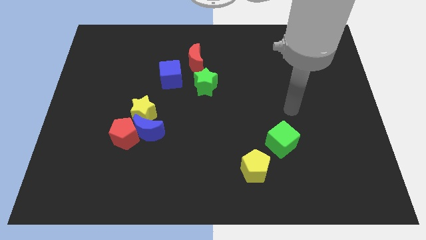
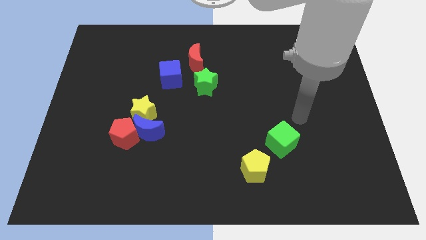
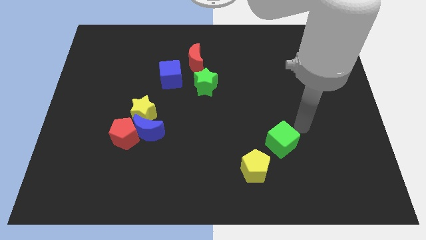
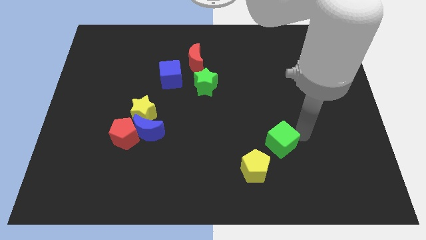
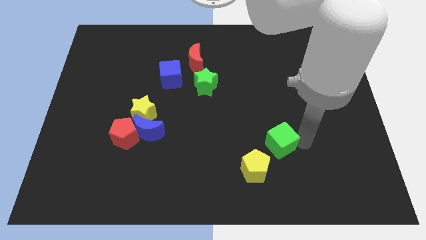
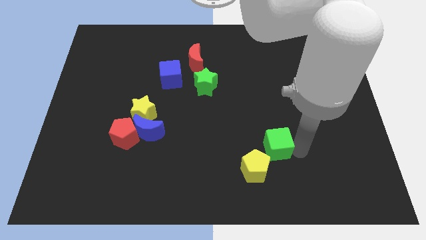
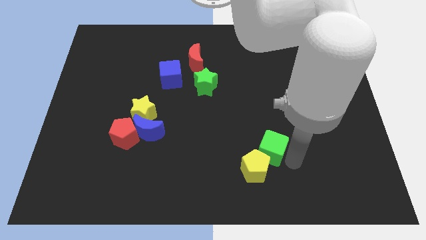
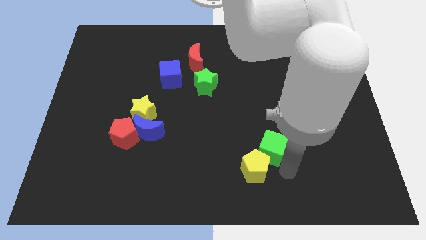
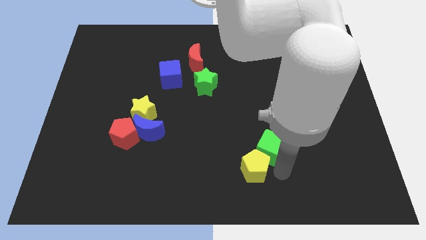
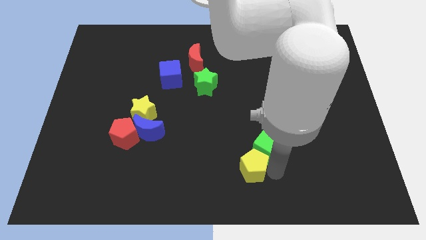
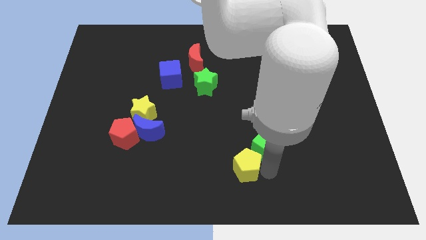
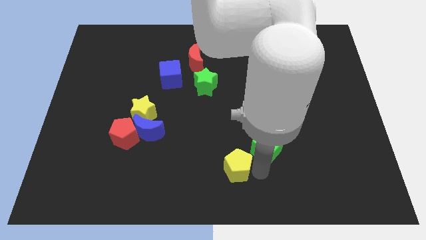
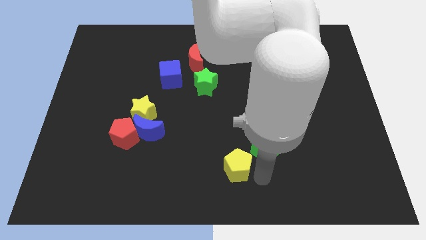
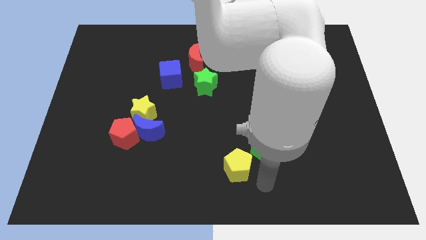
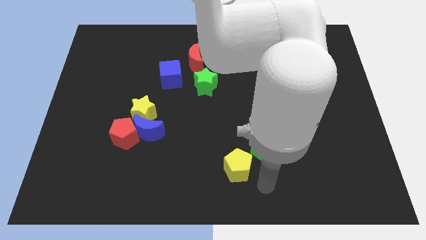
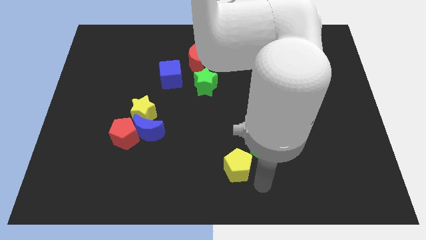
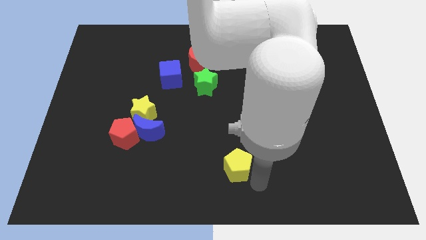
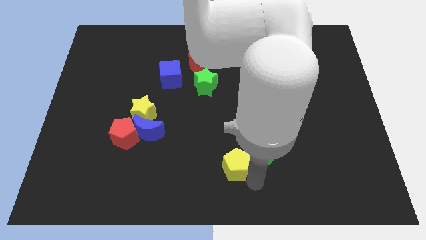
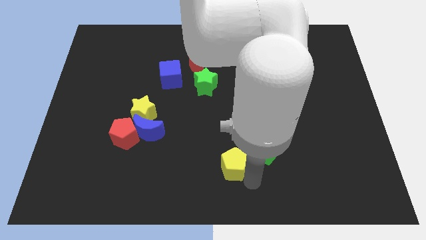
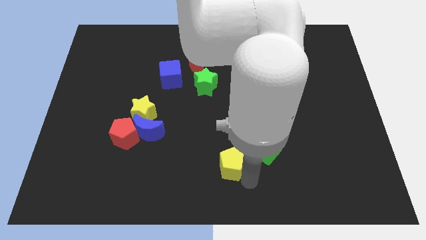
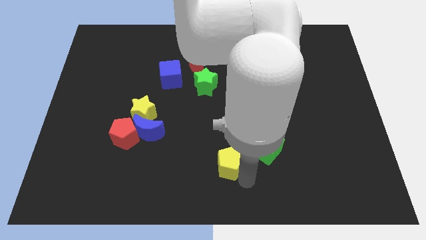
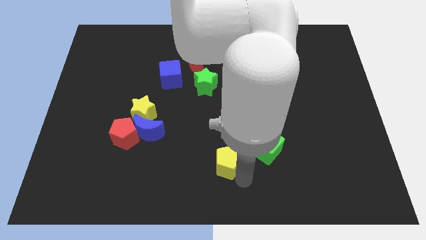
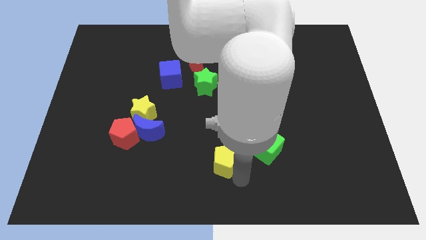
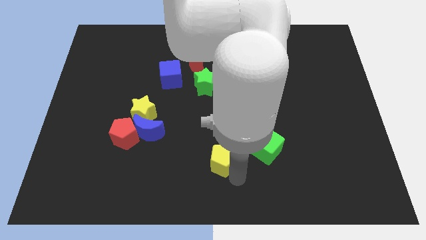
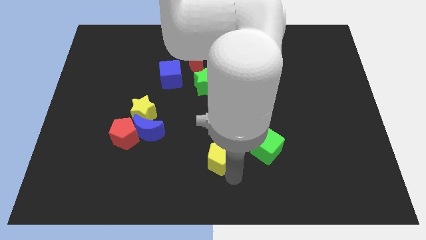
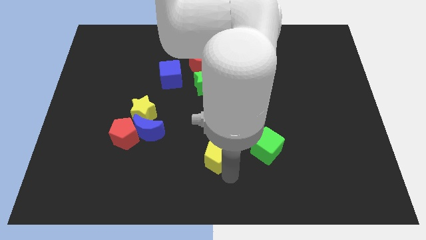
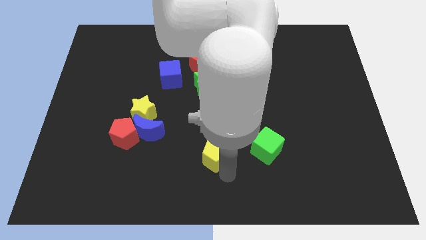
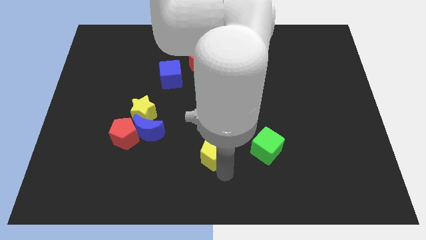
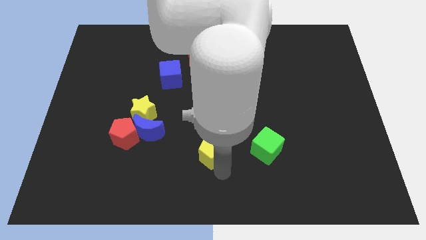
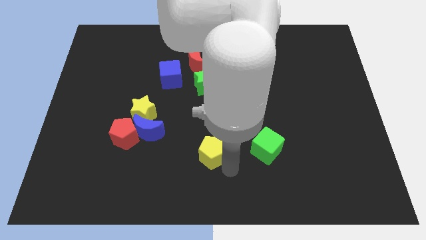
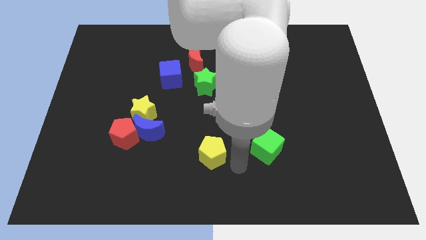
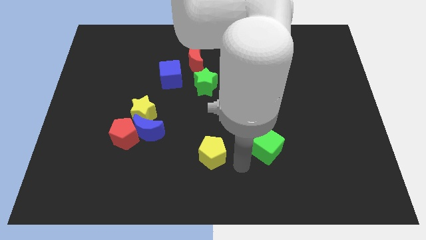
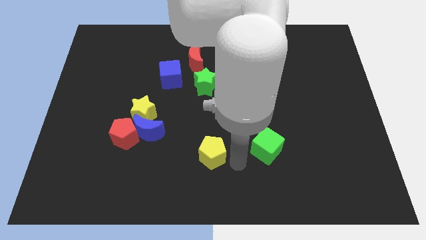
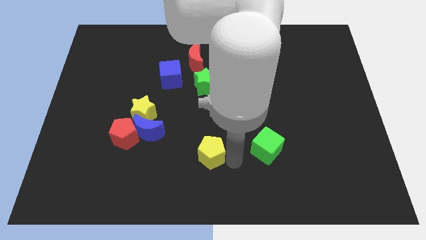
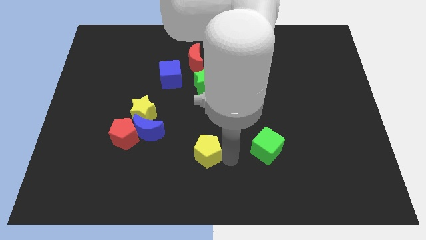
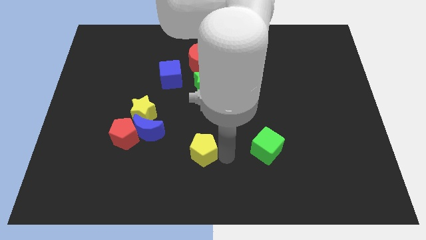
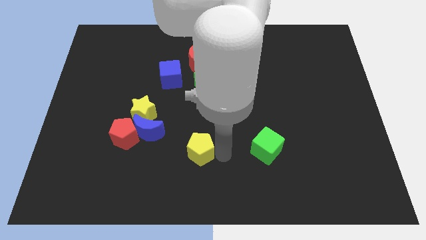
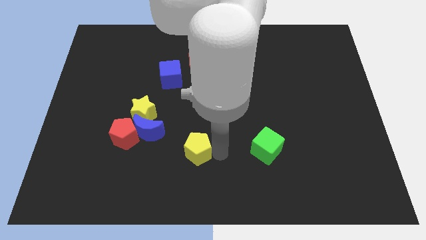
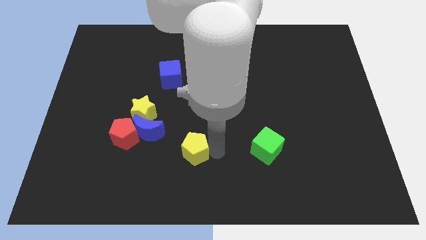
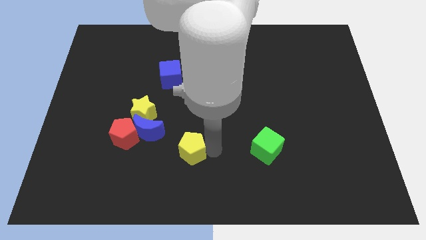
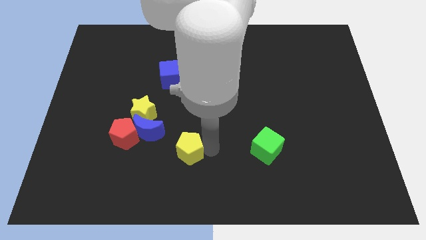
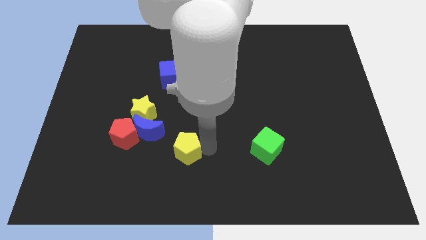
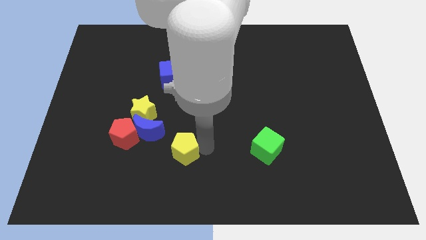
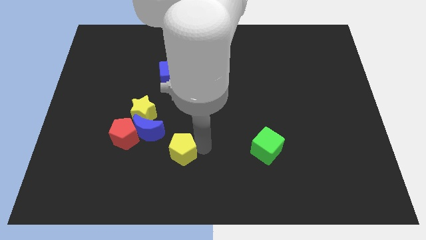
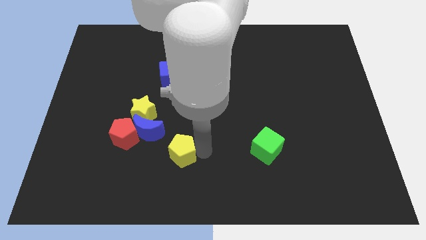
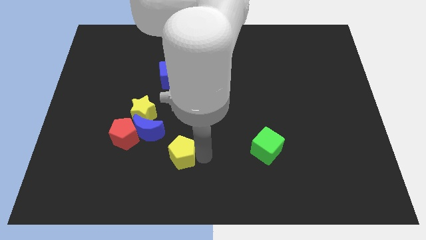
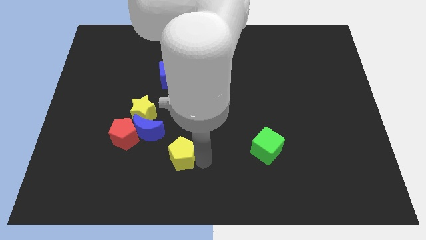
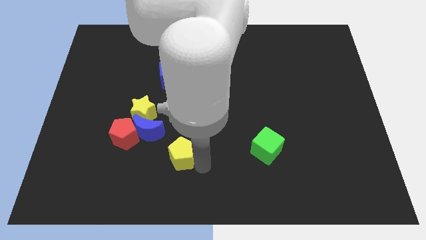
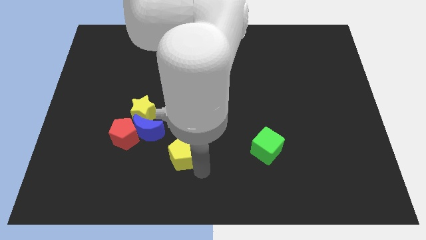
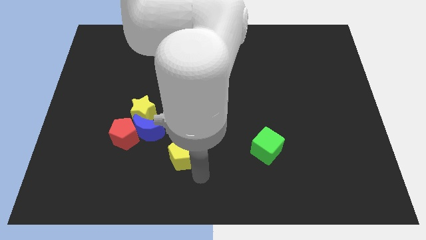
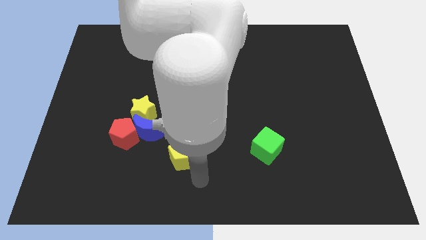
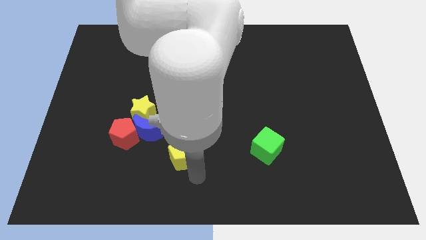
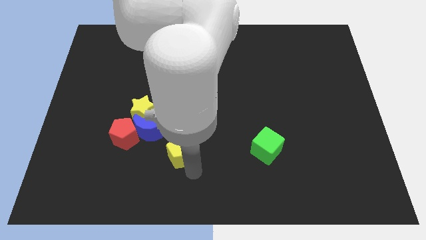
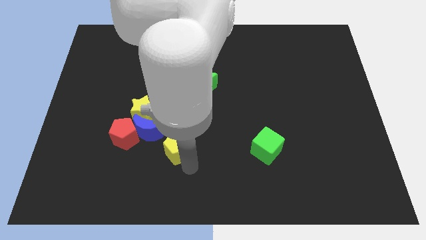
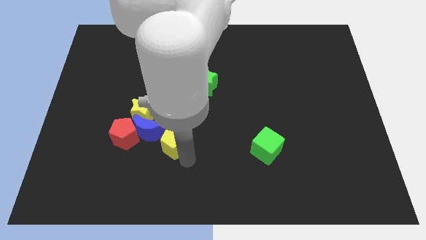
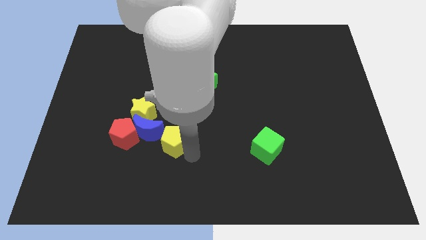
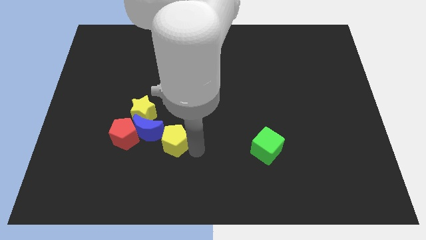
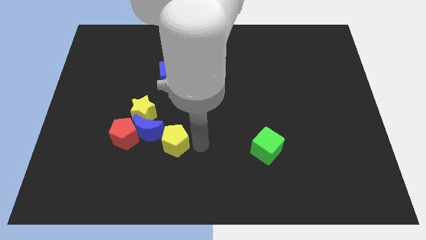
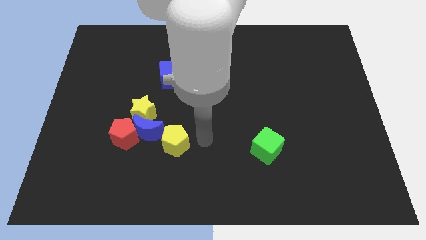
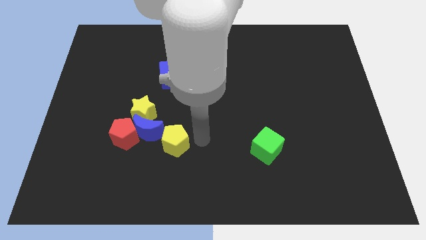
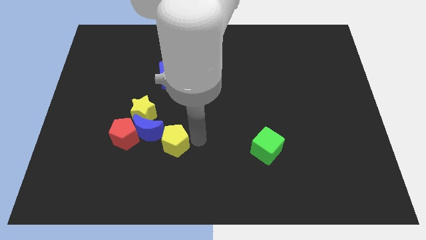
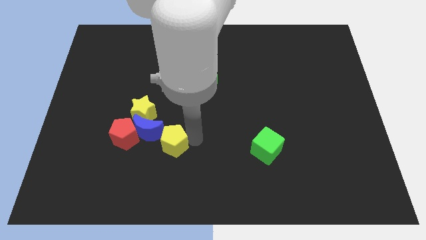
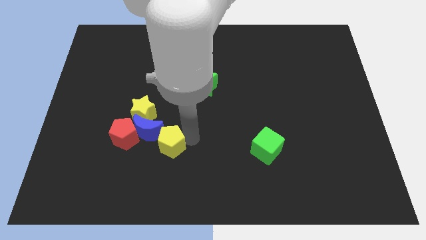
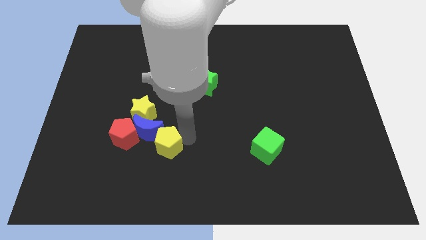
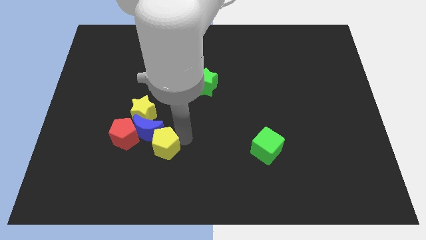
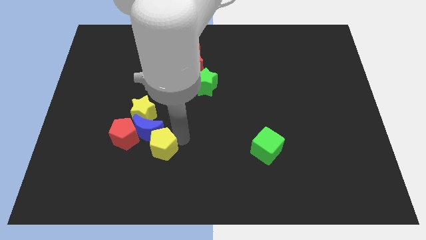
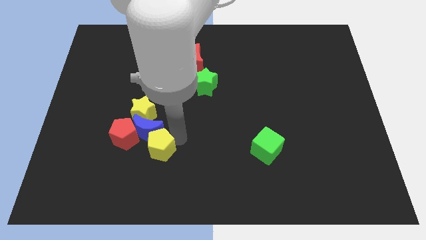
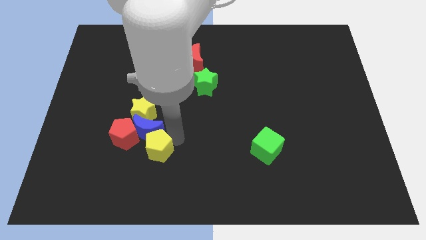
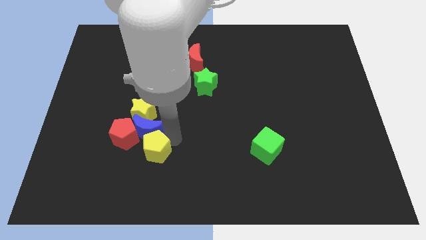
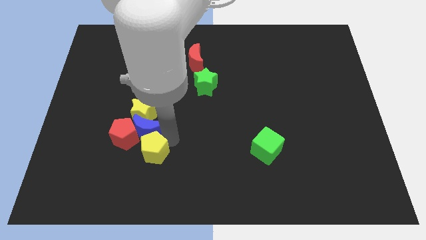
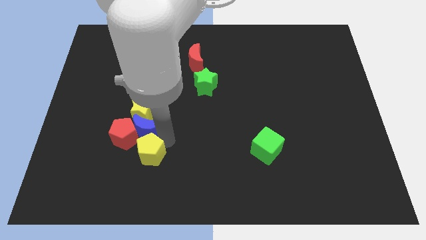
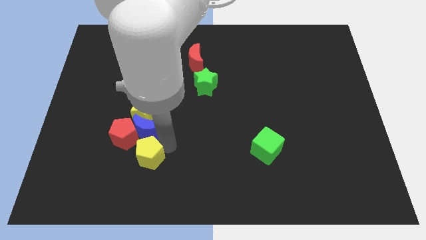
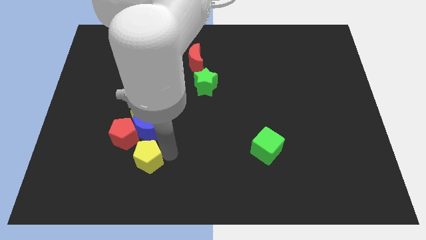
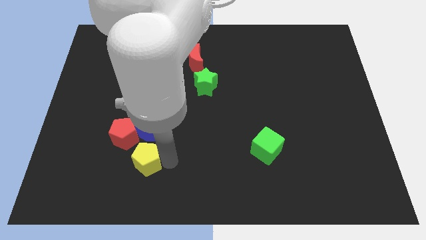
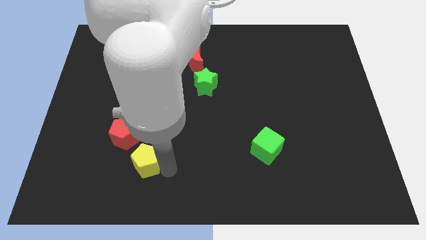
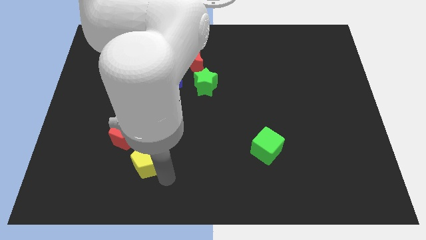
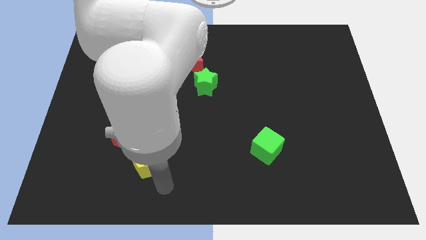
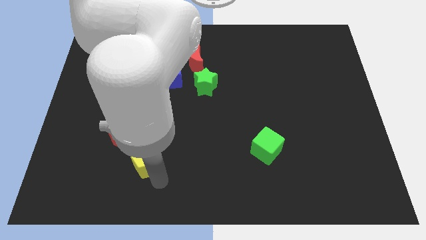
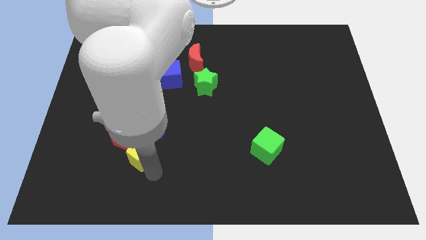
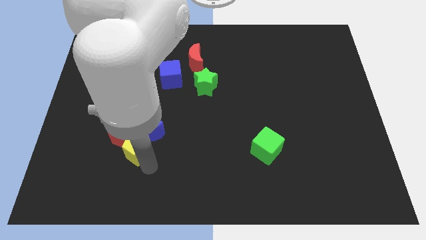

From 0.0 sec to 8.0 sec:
put the yellow pentagon towards the red pentagon
